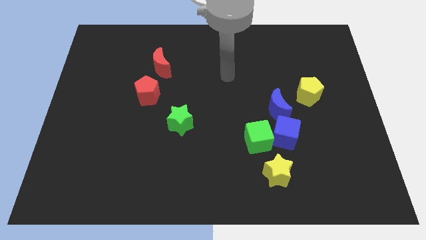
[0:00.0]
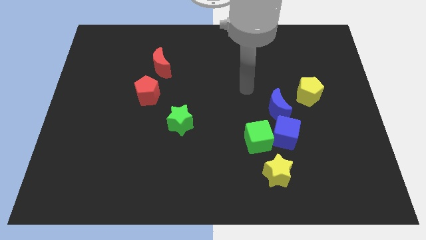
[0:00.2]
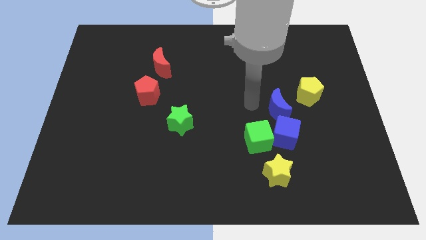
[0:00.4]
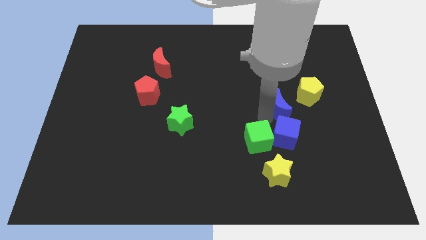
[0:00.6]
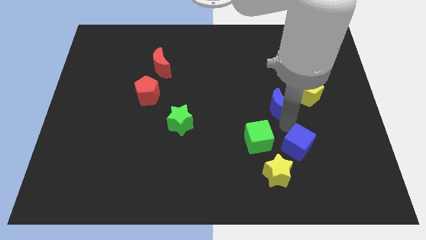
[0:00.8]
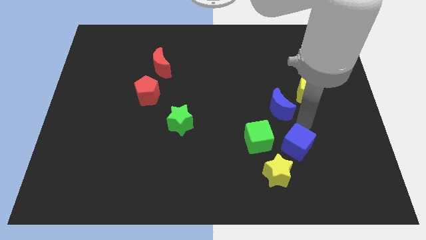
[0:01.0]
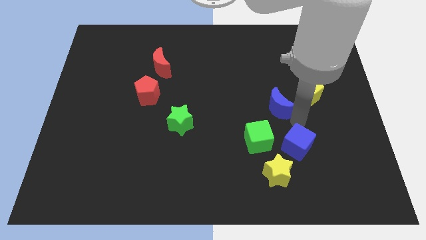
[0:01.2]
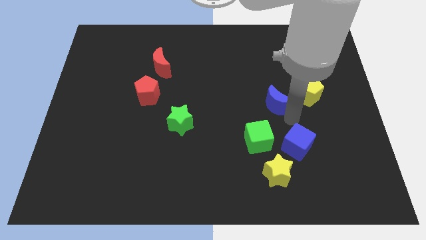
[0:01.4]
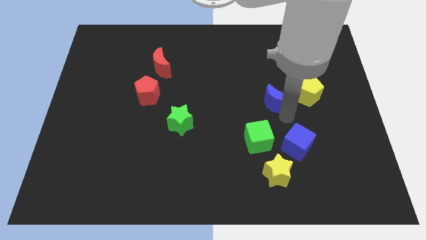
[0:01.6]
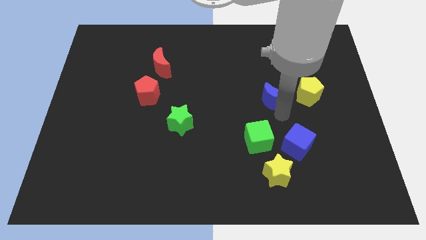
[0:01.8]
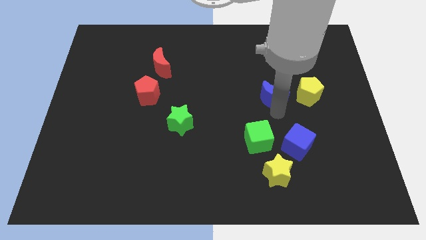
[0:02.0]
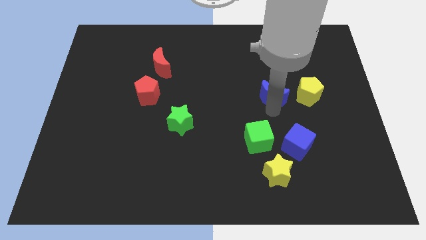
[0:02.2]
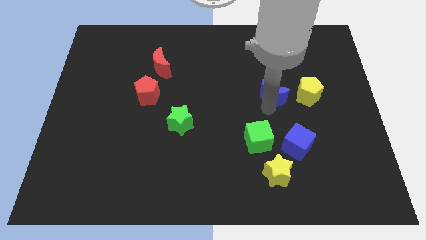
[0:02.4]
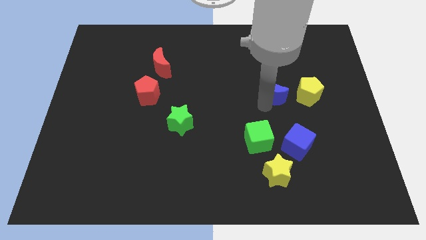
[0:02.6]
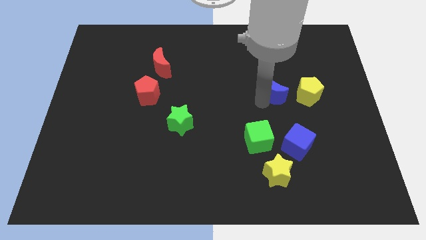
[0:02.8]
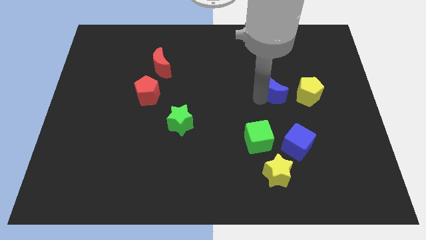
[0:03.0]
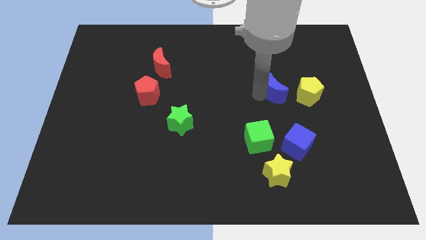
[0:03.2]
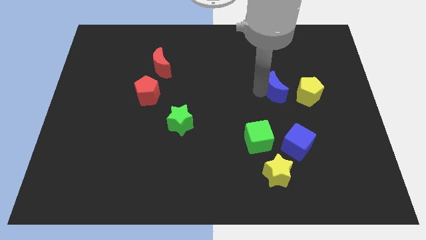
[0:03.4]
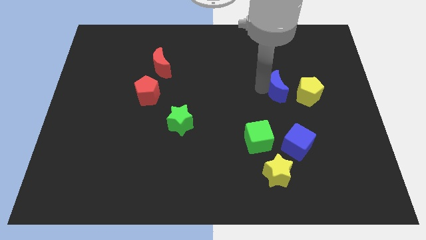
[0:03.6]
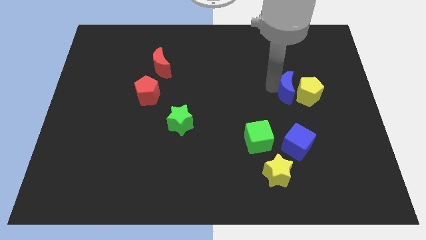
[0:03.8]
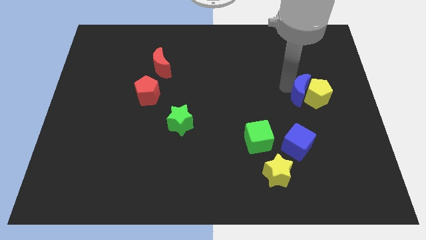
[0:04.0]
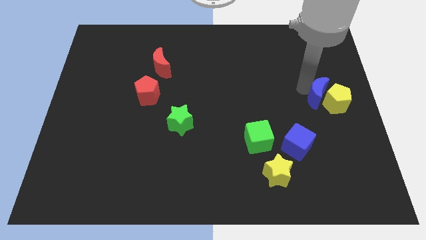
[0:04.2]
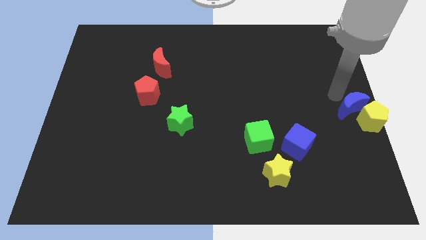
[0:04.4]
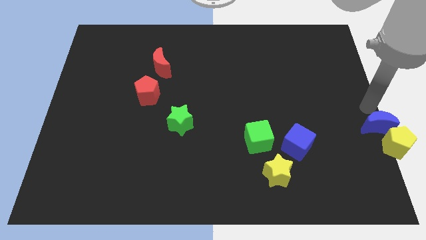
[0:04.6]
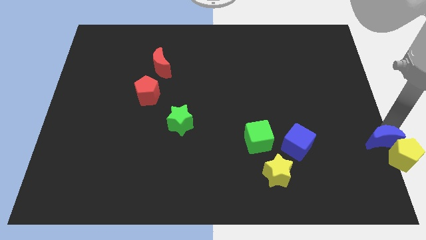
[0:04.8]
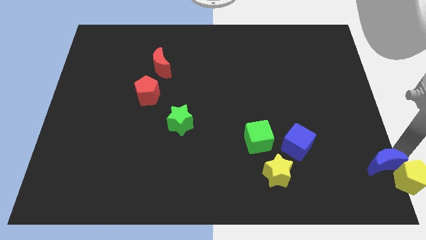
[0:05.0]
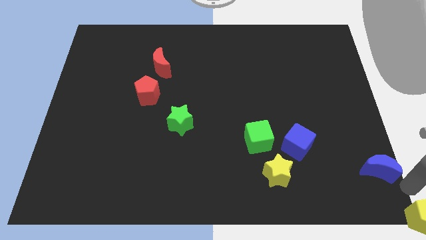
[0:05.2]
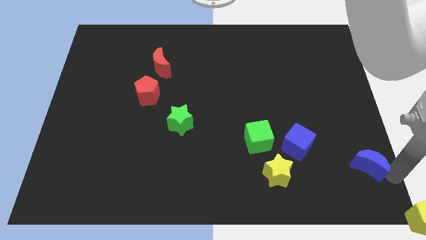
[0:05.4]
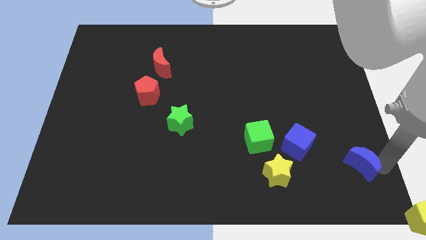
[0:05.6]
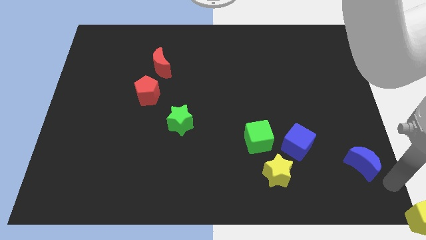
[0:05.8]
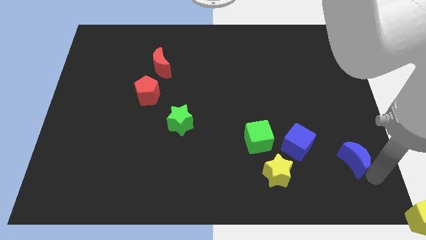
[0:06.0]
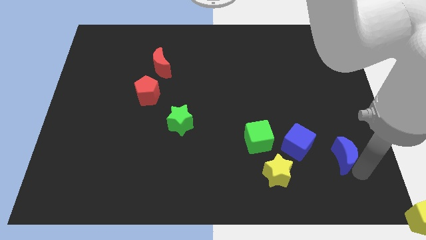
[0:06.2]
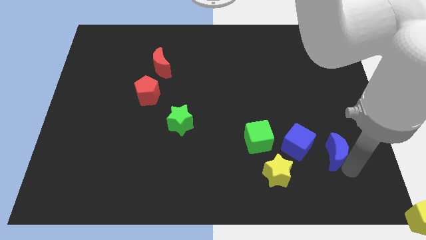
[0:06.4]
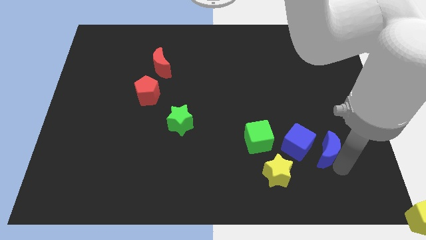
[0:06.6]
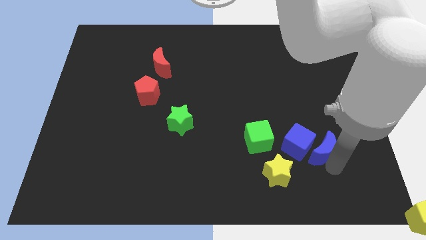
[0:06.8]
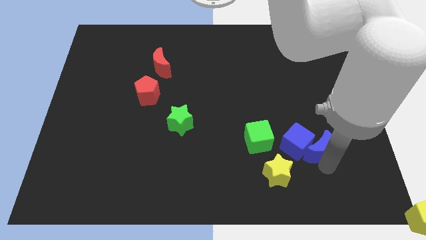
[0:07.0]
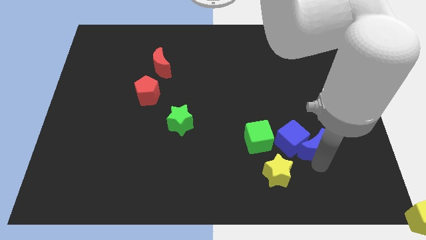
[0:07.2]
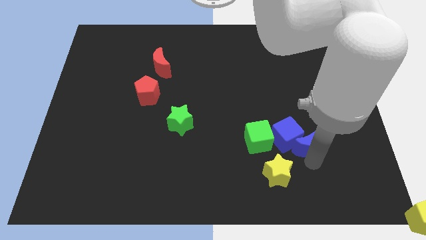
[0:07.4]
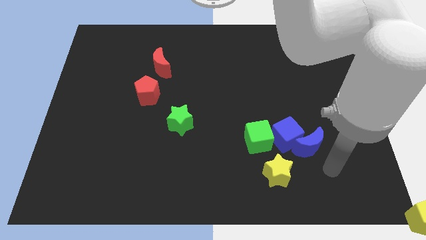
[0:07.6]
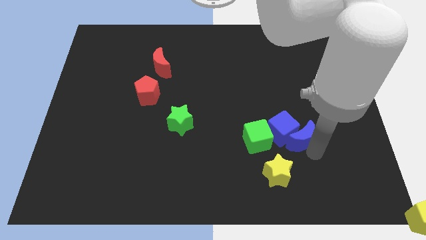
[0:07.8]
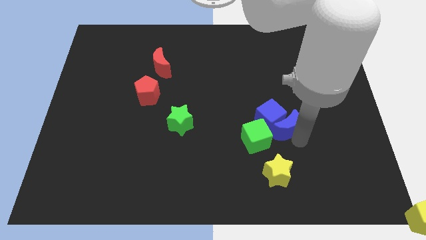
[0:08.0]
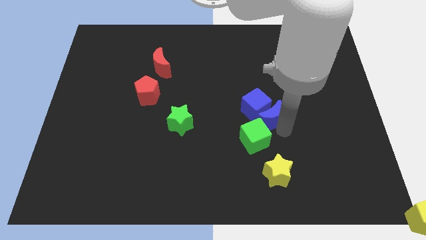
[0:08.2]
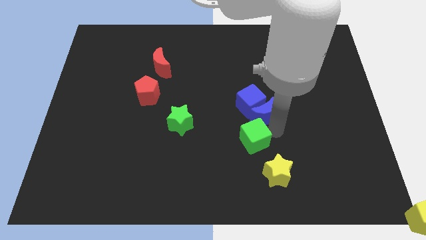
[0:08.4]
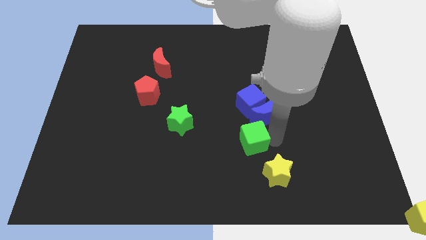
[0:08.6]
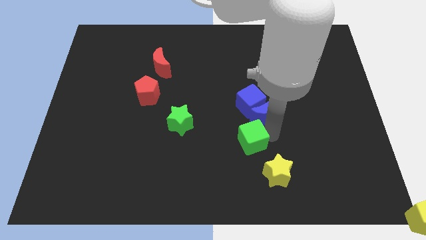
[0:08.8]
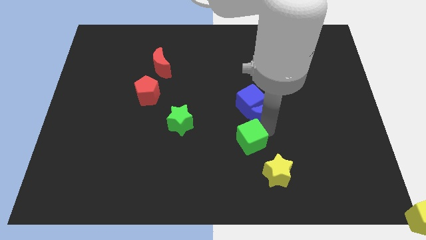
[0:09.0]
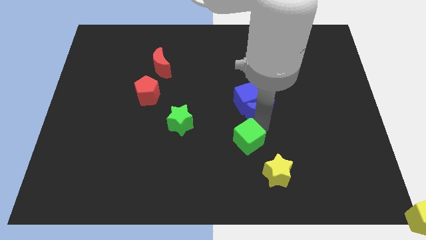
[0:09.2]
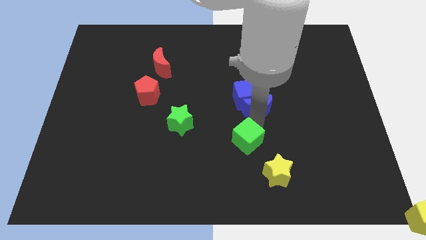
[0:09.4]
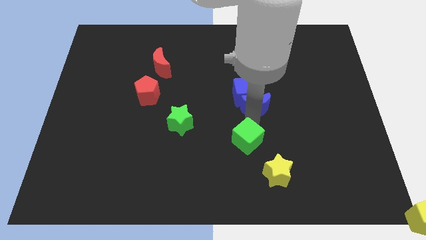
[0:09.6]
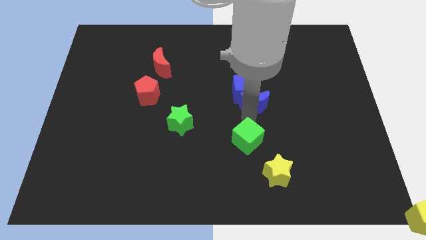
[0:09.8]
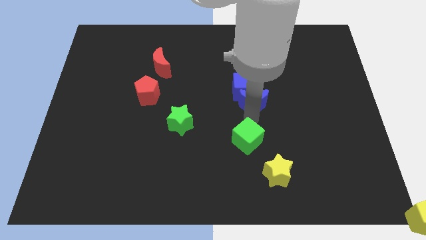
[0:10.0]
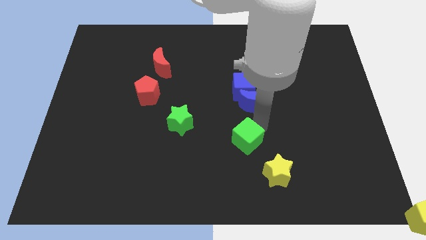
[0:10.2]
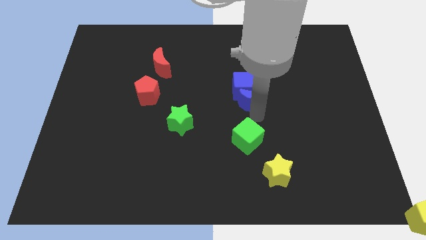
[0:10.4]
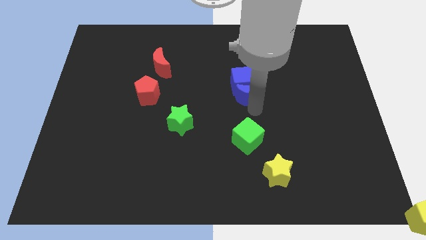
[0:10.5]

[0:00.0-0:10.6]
slightly slide the blue moon diagonally up and left

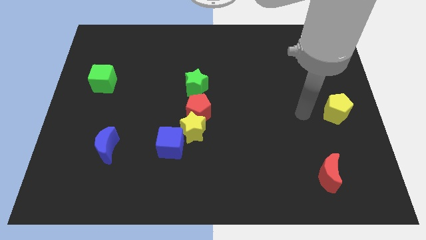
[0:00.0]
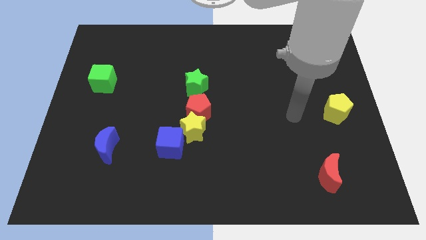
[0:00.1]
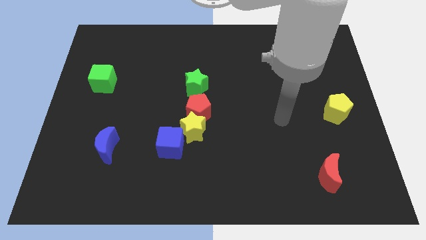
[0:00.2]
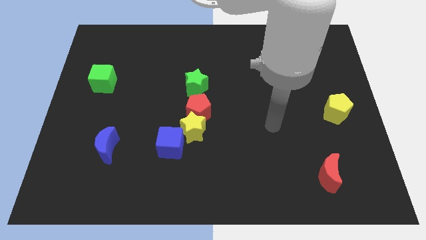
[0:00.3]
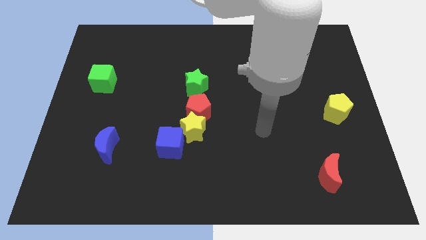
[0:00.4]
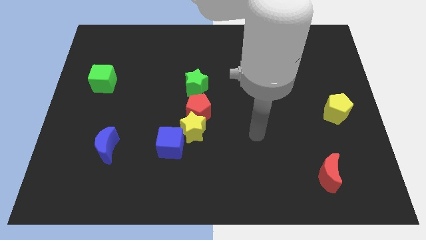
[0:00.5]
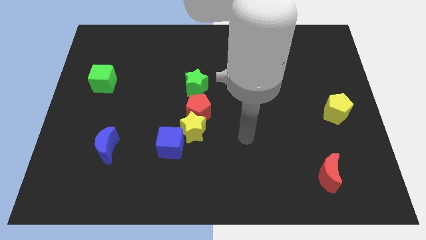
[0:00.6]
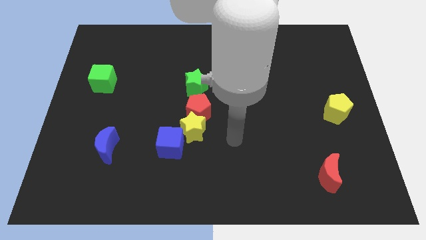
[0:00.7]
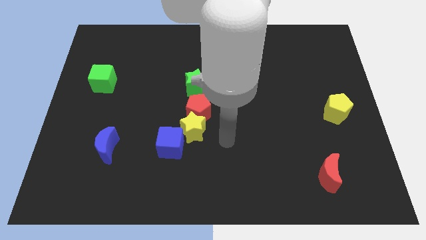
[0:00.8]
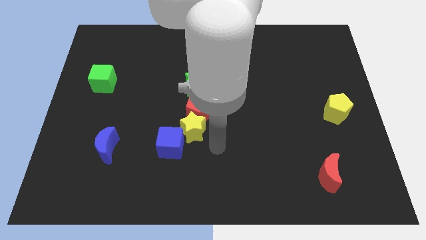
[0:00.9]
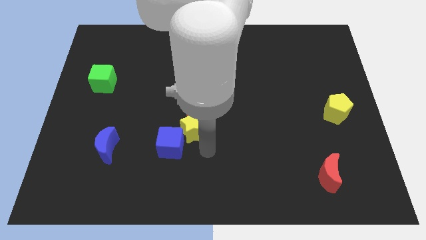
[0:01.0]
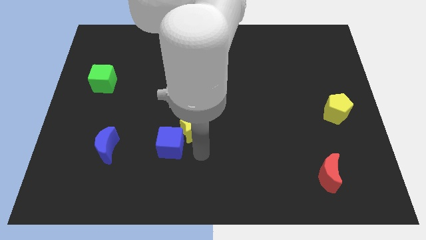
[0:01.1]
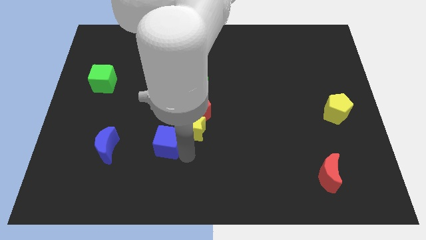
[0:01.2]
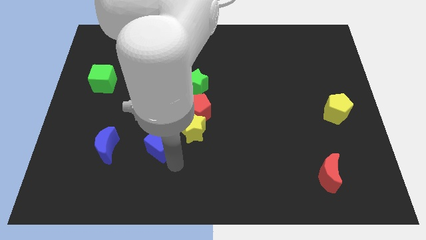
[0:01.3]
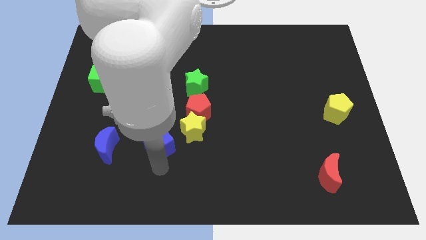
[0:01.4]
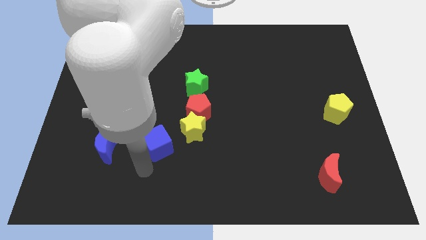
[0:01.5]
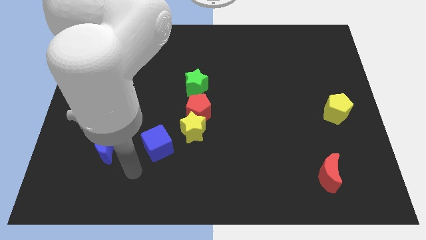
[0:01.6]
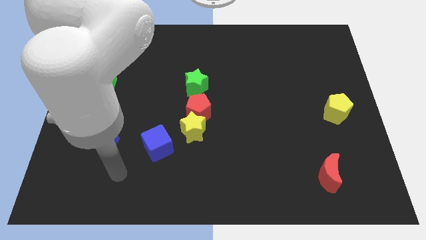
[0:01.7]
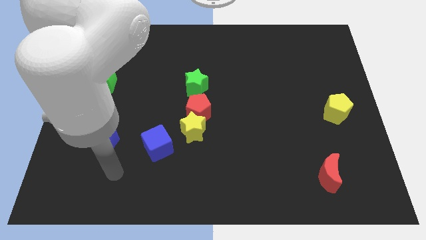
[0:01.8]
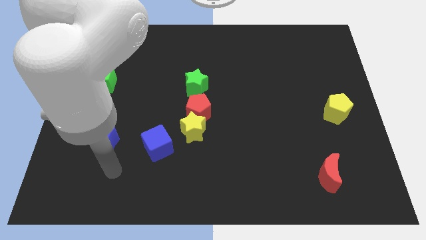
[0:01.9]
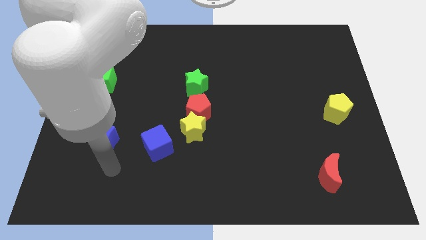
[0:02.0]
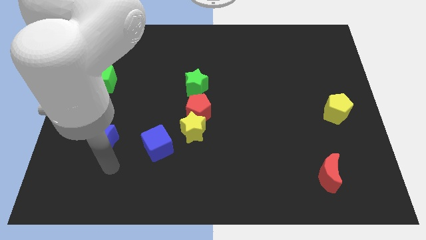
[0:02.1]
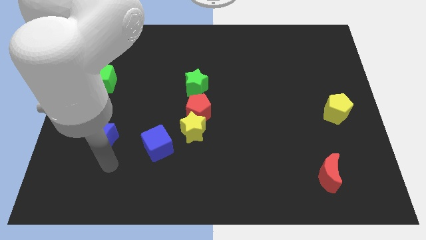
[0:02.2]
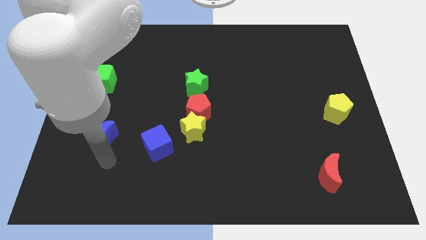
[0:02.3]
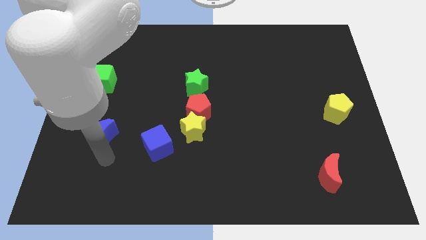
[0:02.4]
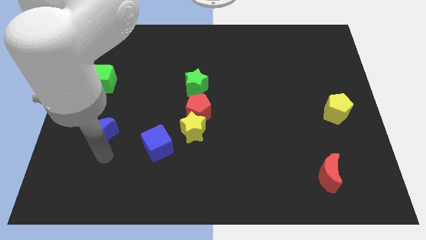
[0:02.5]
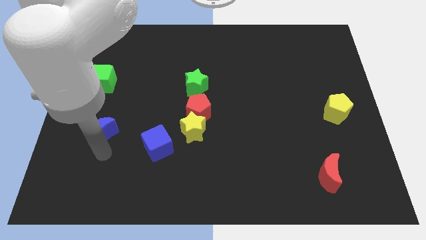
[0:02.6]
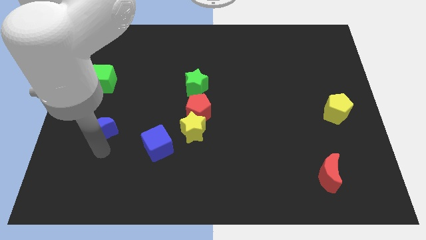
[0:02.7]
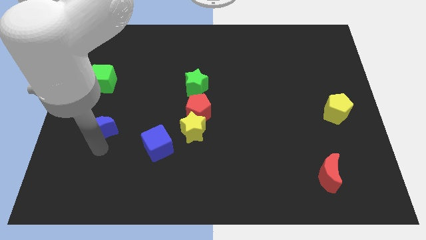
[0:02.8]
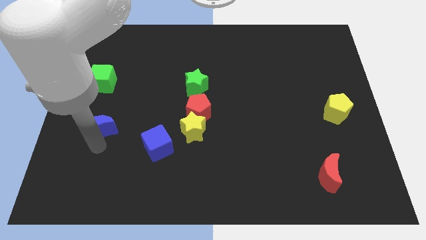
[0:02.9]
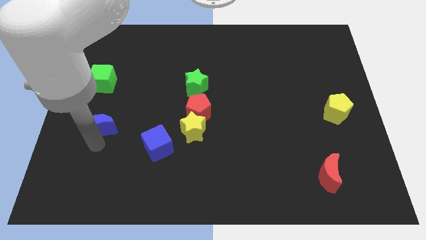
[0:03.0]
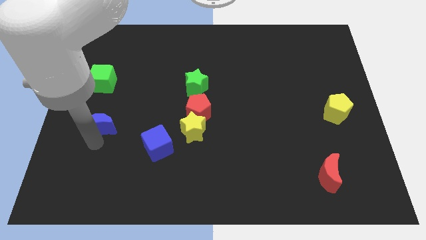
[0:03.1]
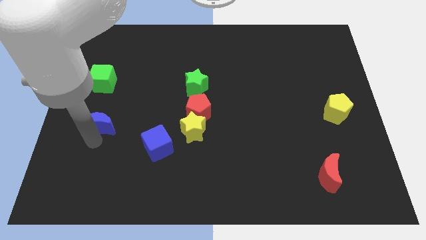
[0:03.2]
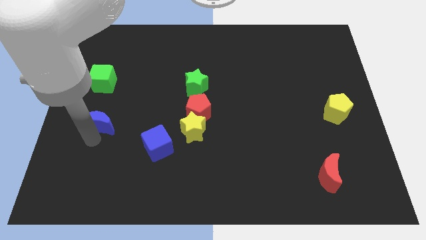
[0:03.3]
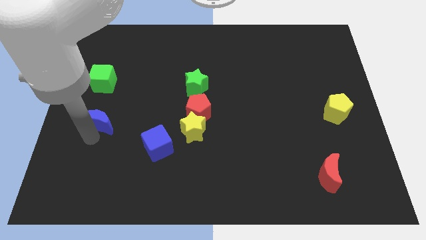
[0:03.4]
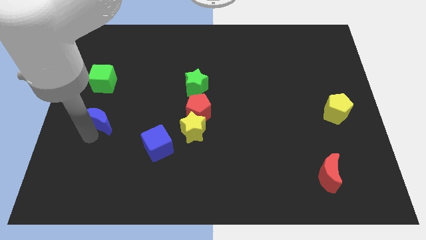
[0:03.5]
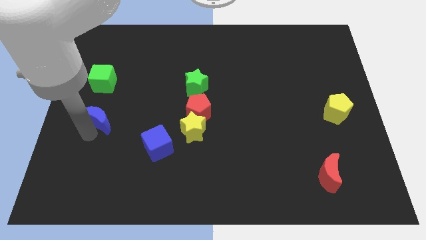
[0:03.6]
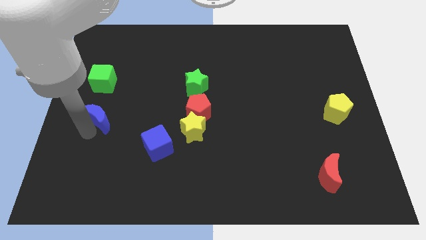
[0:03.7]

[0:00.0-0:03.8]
move the blue moon upwards a bit
